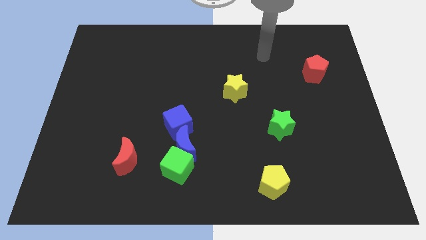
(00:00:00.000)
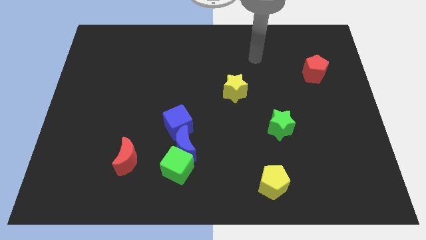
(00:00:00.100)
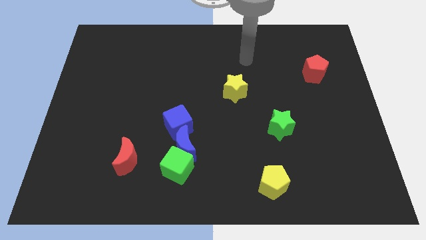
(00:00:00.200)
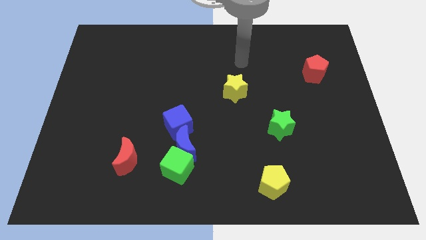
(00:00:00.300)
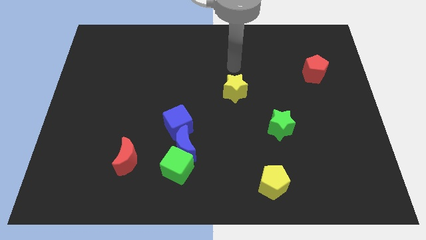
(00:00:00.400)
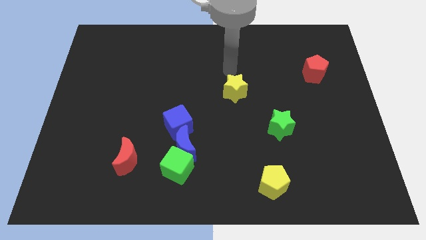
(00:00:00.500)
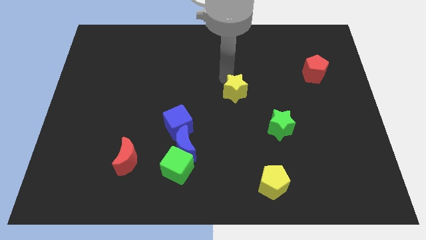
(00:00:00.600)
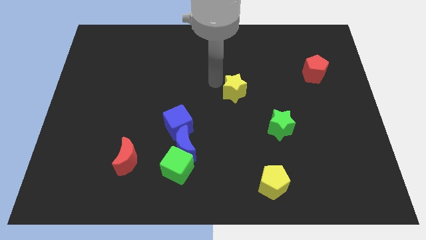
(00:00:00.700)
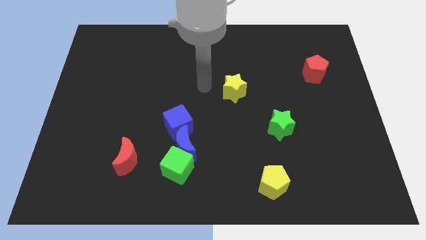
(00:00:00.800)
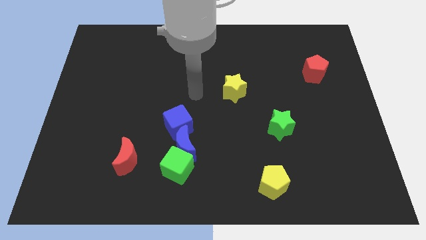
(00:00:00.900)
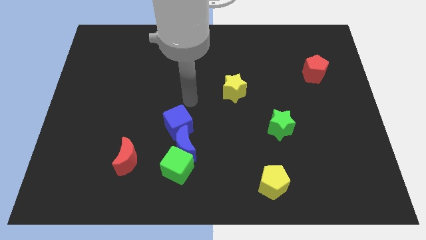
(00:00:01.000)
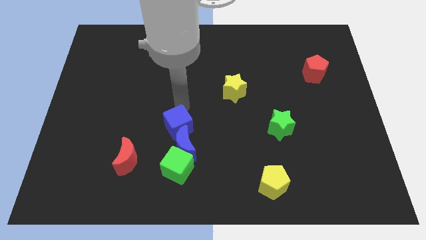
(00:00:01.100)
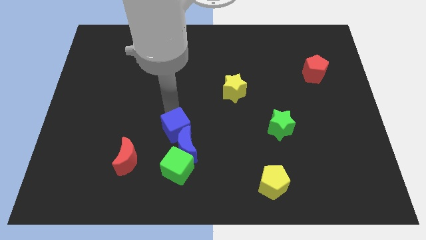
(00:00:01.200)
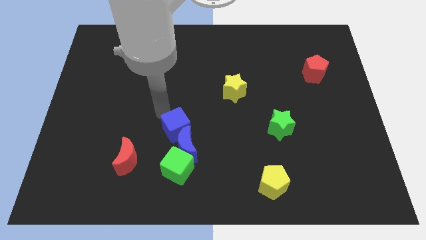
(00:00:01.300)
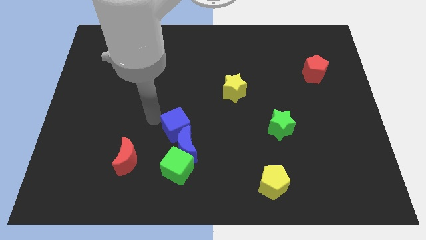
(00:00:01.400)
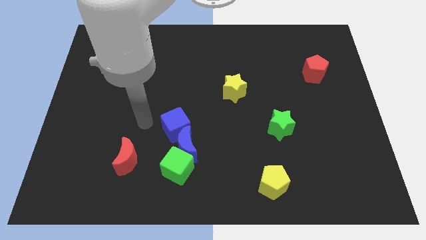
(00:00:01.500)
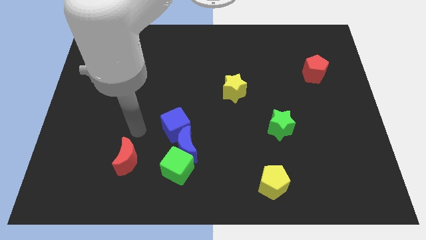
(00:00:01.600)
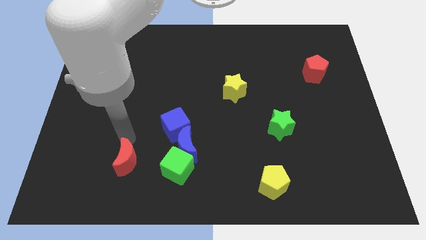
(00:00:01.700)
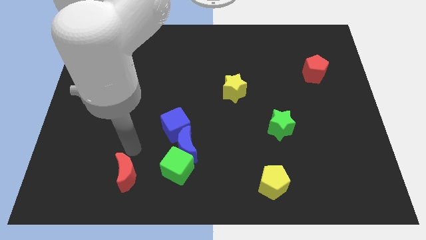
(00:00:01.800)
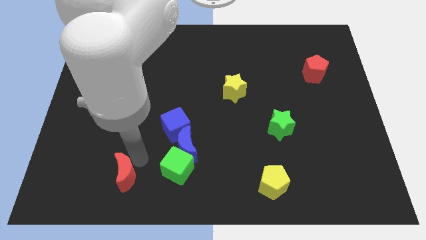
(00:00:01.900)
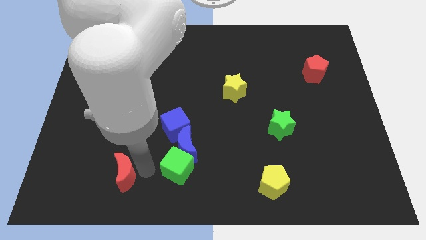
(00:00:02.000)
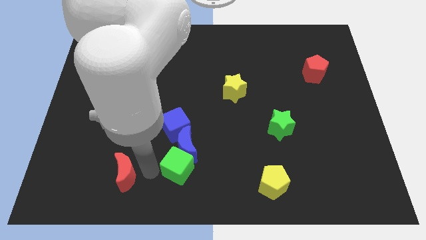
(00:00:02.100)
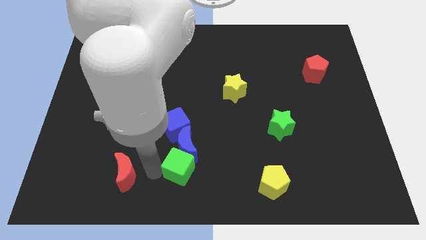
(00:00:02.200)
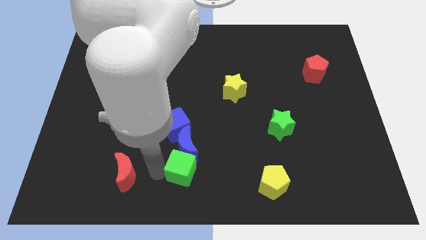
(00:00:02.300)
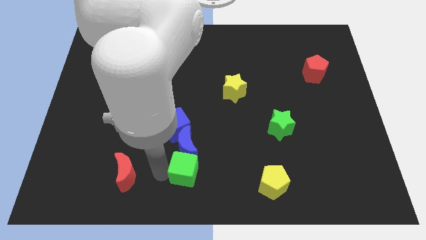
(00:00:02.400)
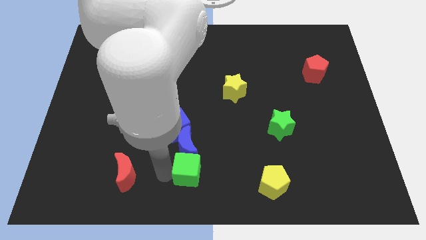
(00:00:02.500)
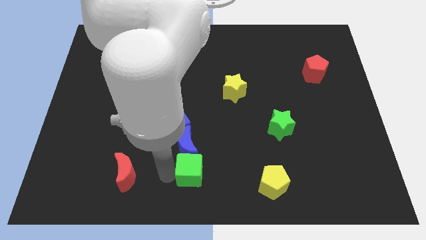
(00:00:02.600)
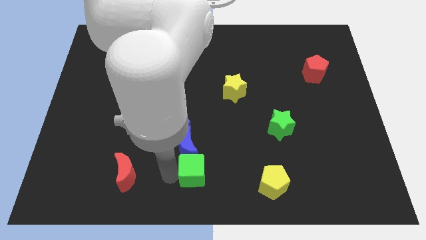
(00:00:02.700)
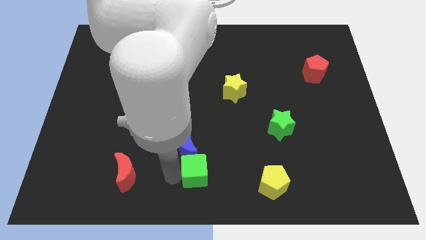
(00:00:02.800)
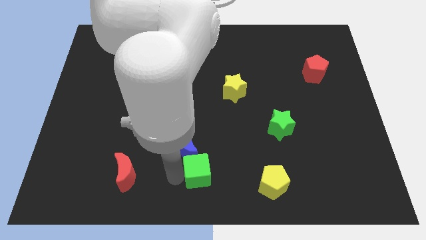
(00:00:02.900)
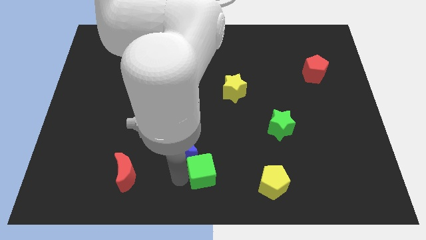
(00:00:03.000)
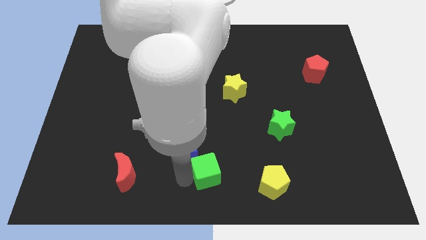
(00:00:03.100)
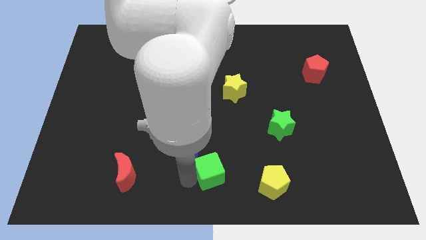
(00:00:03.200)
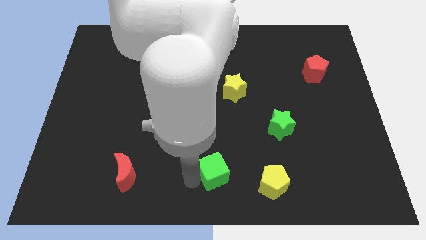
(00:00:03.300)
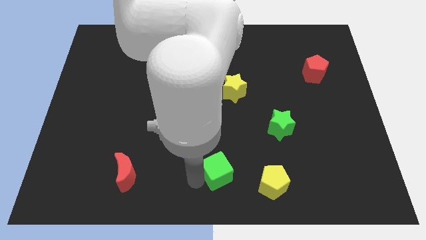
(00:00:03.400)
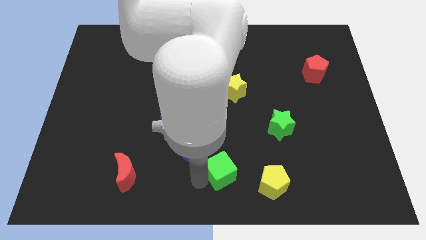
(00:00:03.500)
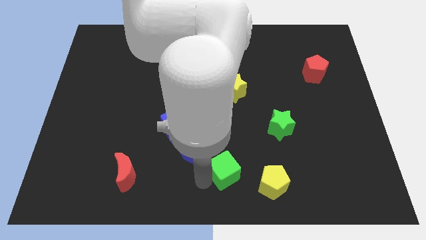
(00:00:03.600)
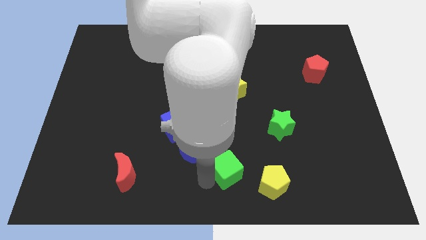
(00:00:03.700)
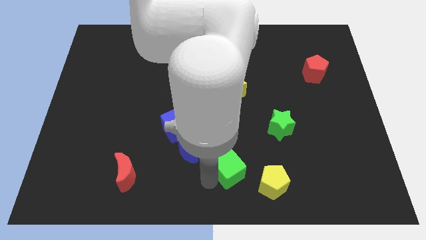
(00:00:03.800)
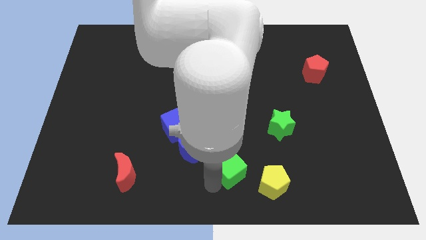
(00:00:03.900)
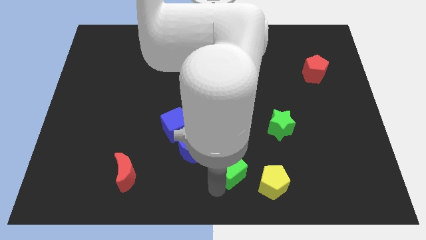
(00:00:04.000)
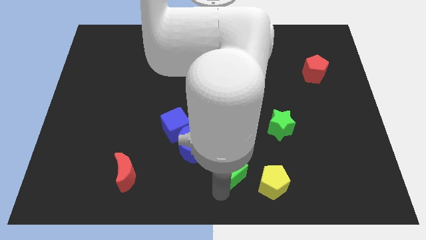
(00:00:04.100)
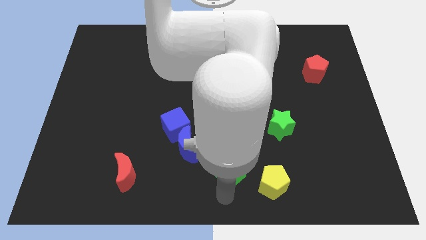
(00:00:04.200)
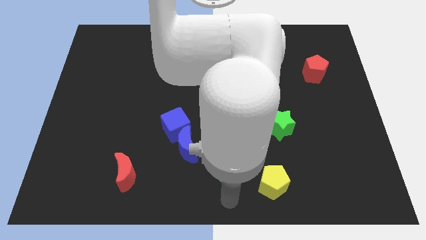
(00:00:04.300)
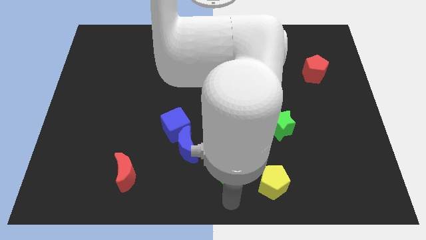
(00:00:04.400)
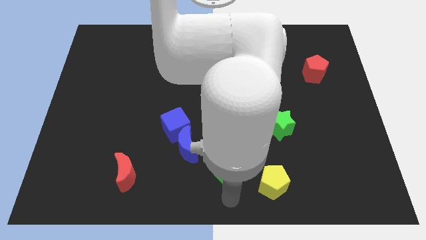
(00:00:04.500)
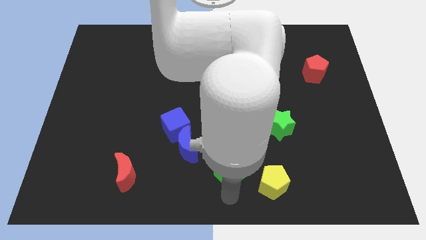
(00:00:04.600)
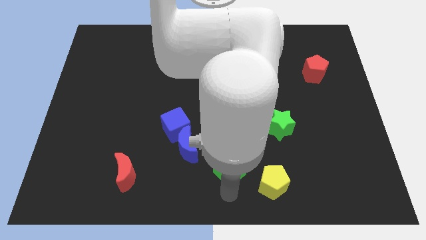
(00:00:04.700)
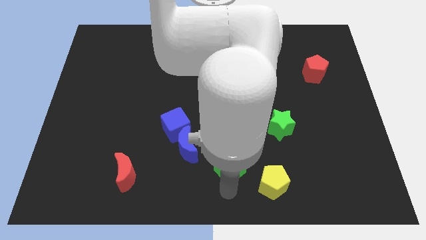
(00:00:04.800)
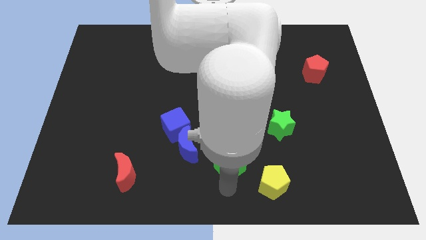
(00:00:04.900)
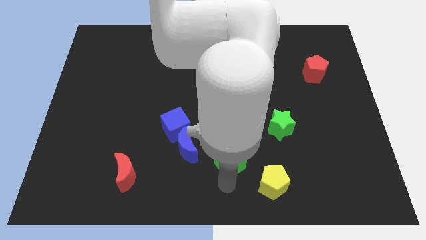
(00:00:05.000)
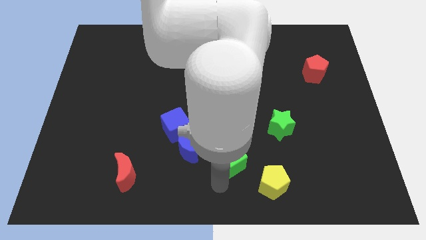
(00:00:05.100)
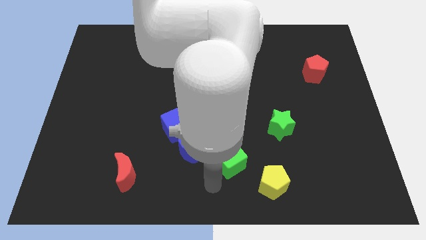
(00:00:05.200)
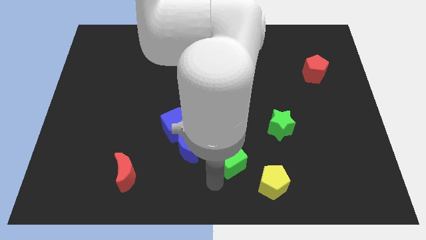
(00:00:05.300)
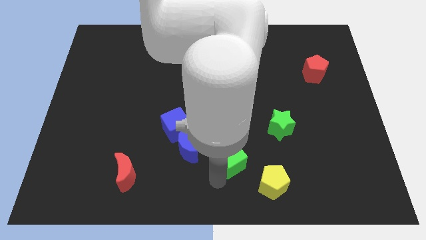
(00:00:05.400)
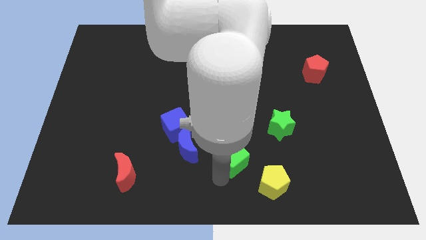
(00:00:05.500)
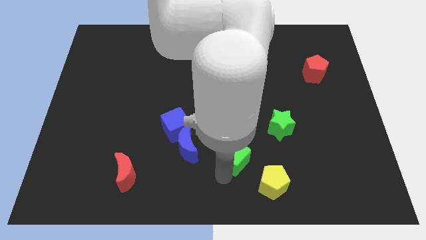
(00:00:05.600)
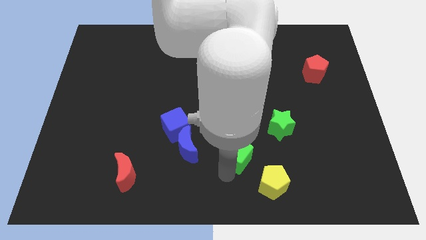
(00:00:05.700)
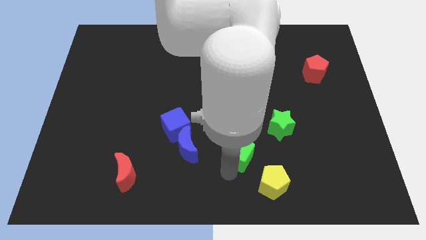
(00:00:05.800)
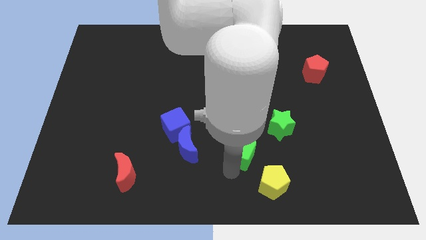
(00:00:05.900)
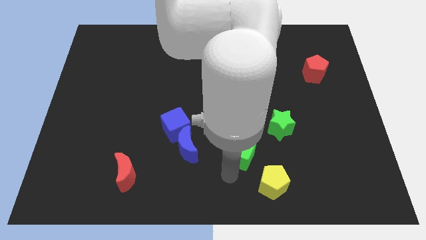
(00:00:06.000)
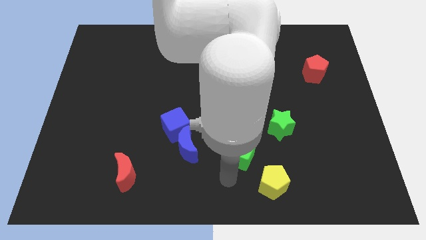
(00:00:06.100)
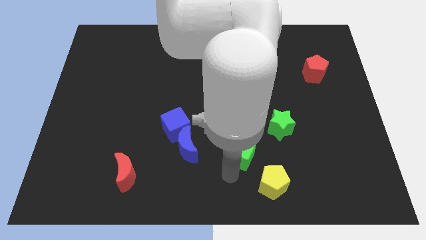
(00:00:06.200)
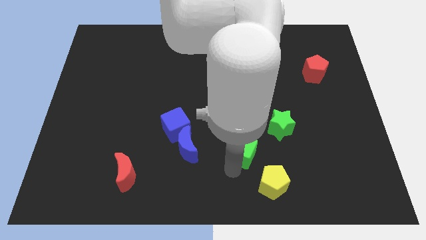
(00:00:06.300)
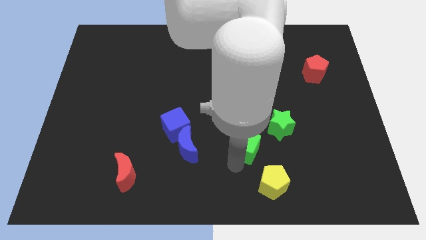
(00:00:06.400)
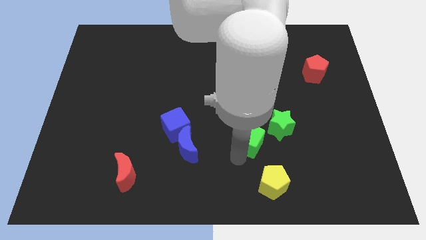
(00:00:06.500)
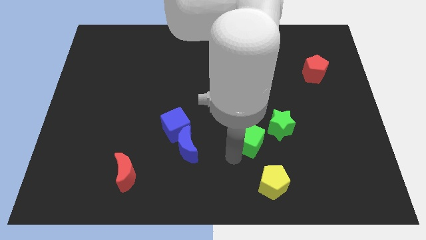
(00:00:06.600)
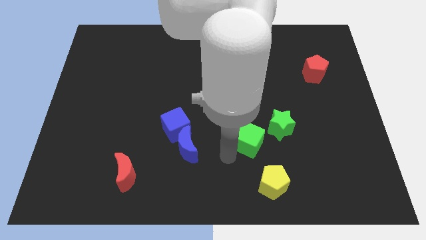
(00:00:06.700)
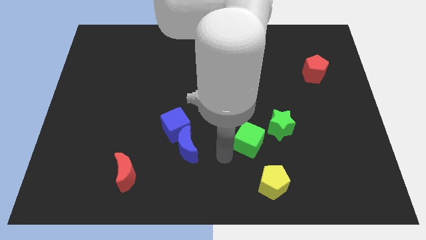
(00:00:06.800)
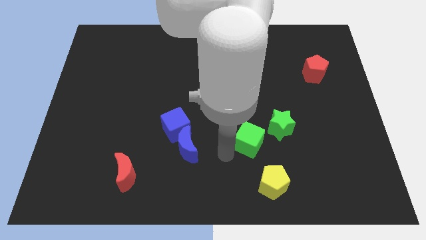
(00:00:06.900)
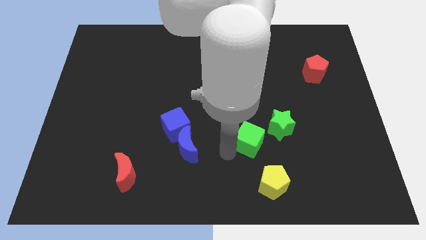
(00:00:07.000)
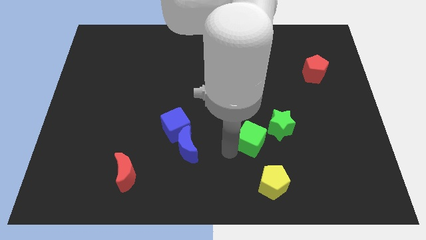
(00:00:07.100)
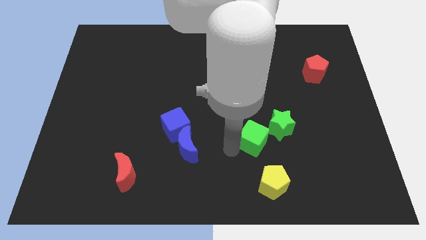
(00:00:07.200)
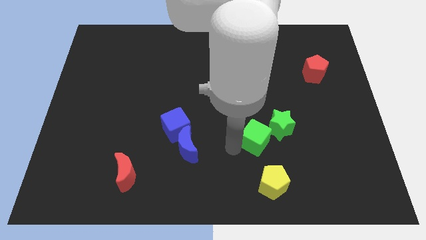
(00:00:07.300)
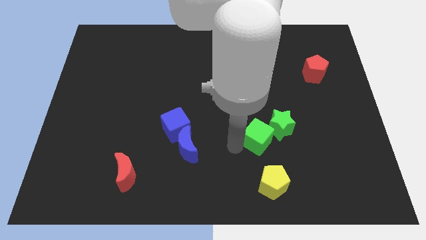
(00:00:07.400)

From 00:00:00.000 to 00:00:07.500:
push the green cube towards the green star

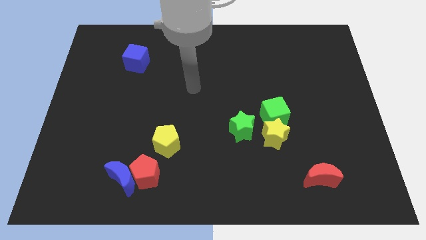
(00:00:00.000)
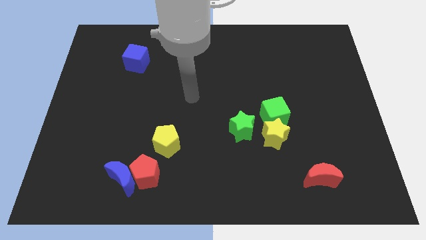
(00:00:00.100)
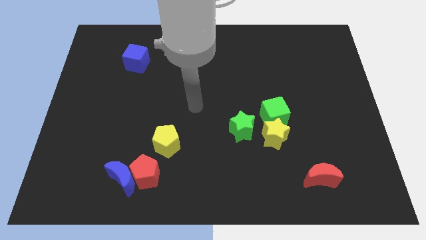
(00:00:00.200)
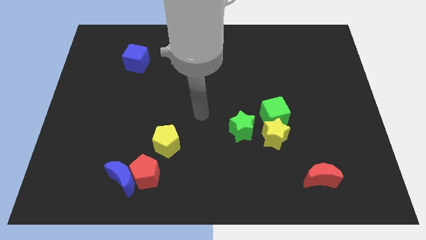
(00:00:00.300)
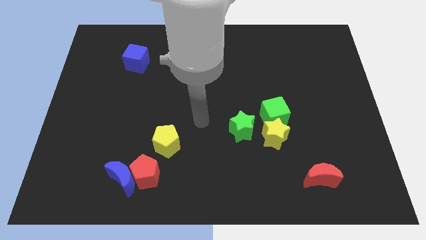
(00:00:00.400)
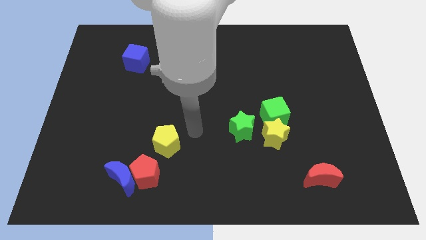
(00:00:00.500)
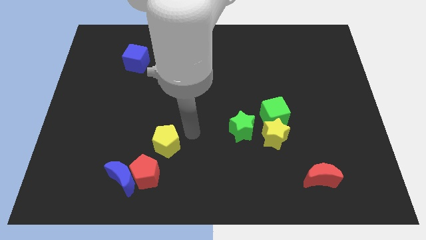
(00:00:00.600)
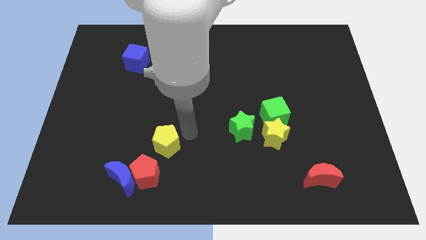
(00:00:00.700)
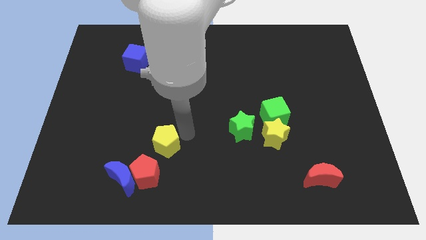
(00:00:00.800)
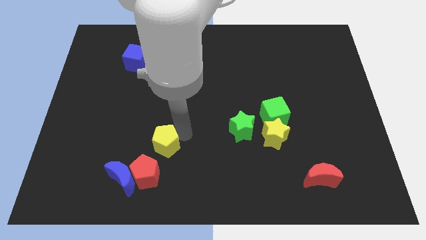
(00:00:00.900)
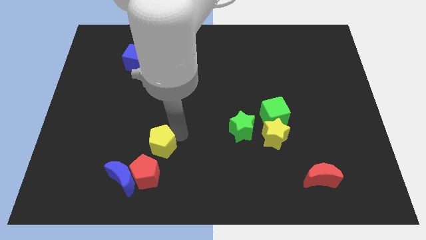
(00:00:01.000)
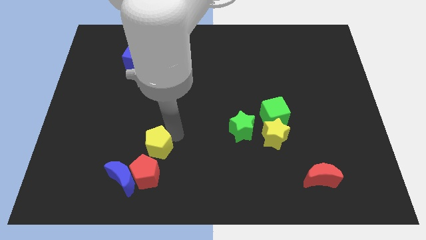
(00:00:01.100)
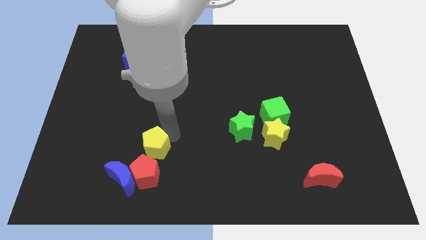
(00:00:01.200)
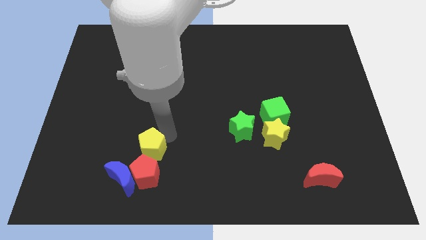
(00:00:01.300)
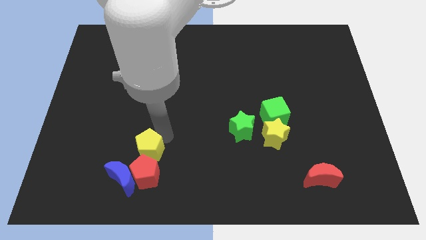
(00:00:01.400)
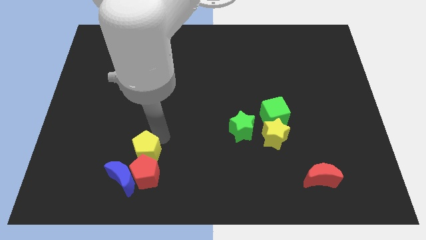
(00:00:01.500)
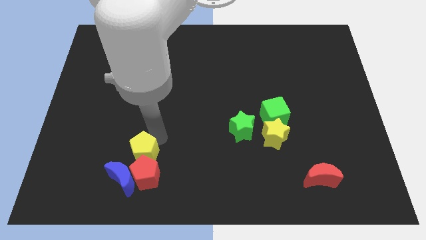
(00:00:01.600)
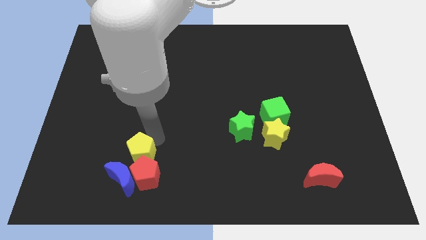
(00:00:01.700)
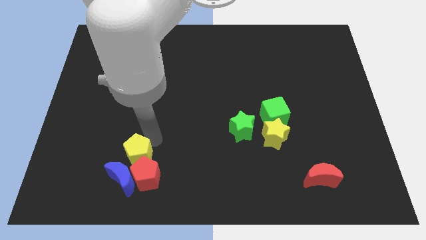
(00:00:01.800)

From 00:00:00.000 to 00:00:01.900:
push the yellow pentagon to the blue moon
